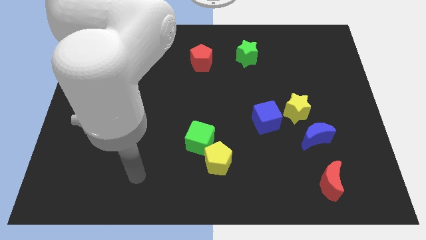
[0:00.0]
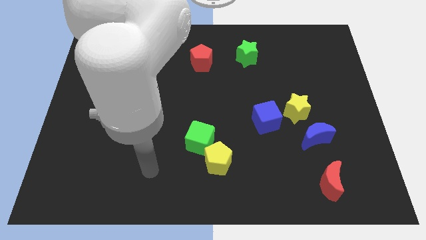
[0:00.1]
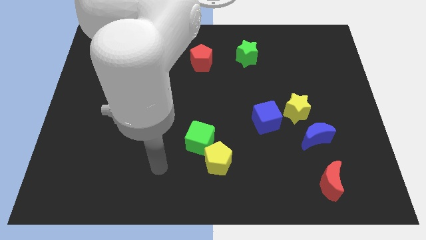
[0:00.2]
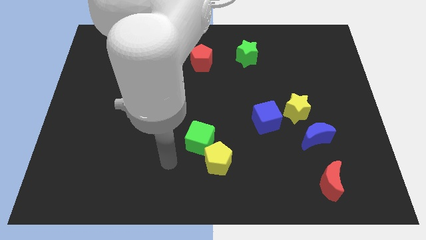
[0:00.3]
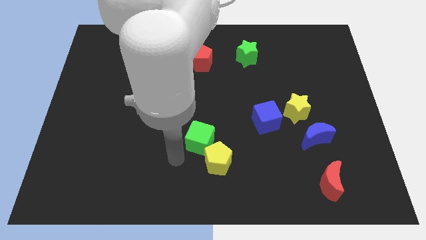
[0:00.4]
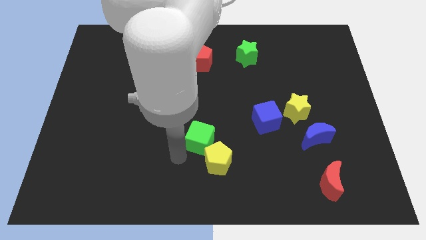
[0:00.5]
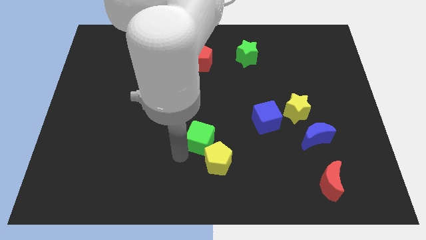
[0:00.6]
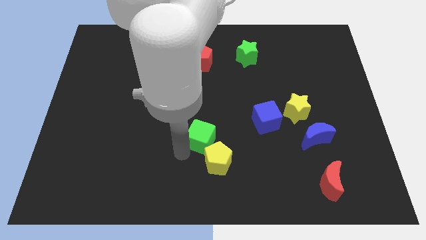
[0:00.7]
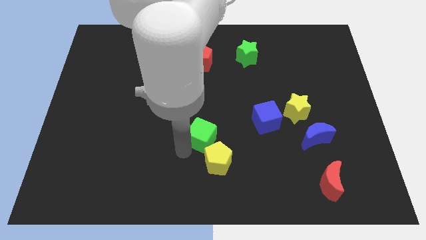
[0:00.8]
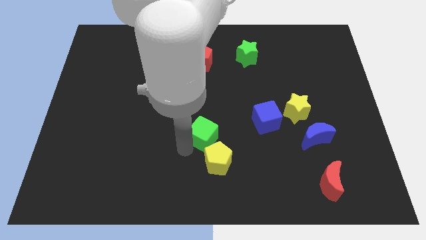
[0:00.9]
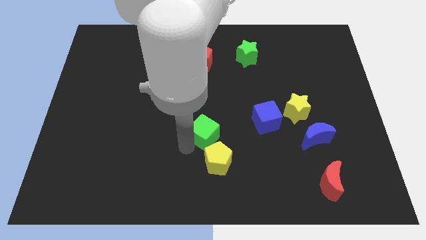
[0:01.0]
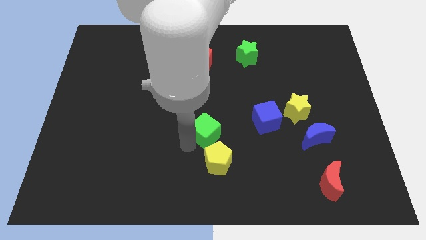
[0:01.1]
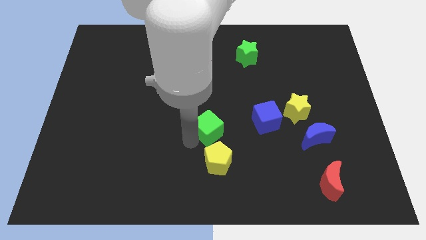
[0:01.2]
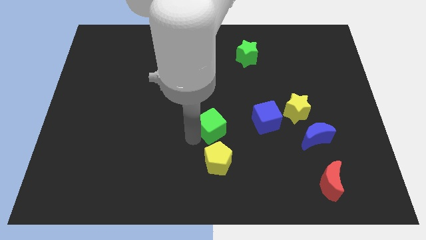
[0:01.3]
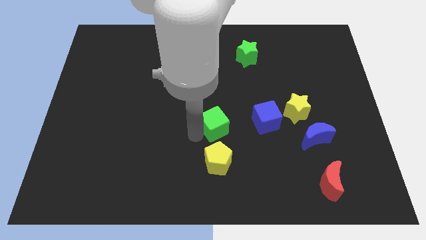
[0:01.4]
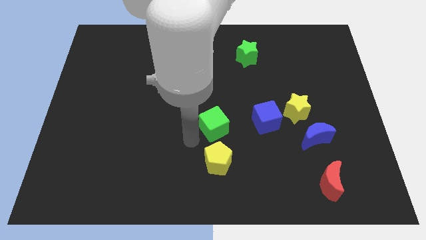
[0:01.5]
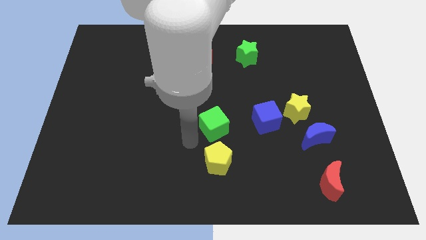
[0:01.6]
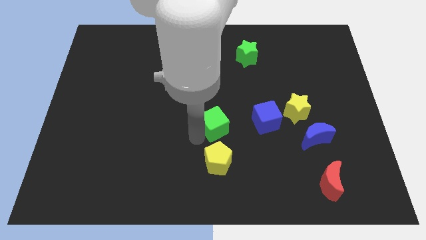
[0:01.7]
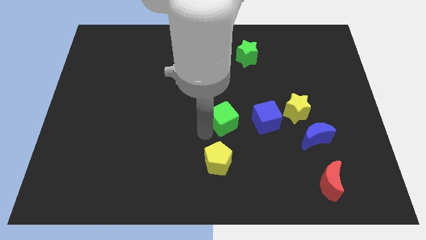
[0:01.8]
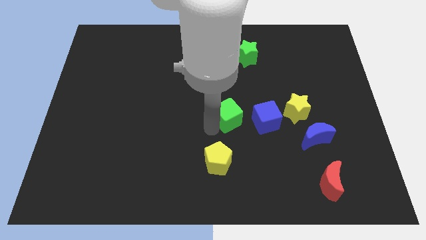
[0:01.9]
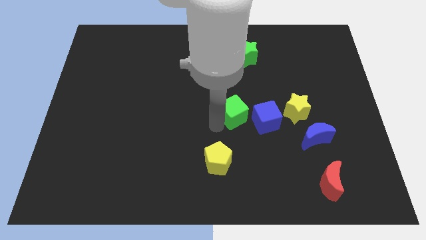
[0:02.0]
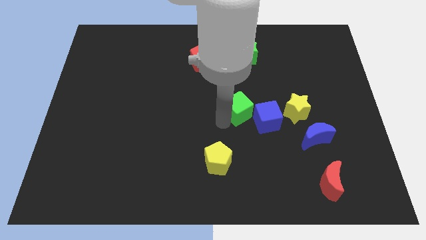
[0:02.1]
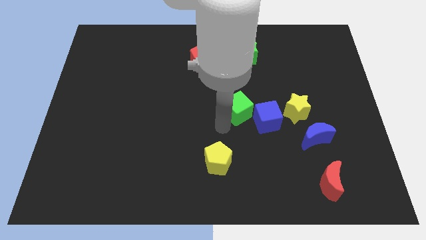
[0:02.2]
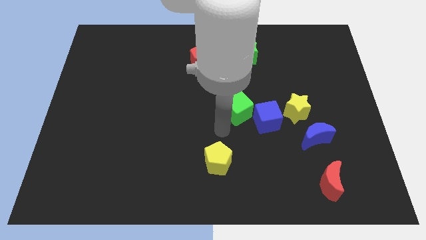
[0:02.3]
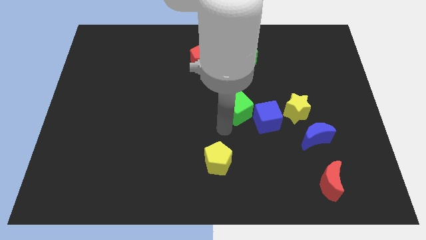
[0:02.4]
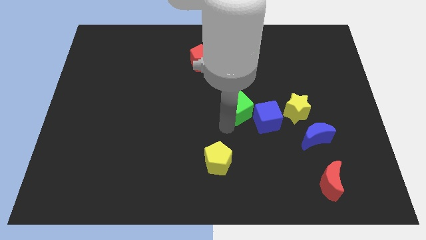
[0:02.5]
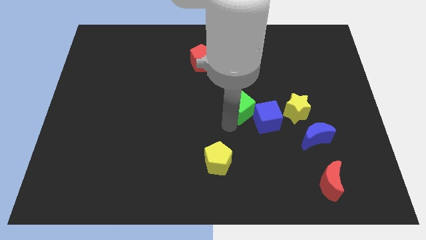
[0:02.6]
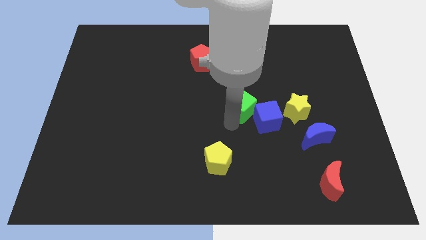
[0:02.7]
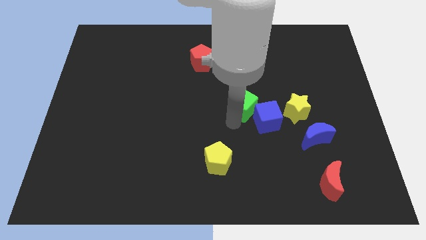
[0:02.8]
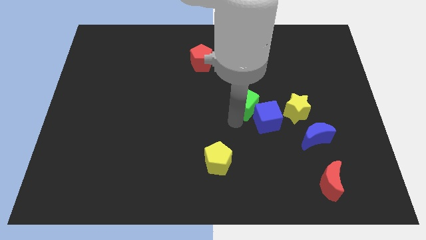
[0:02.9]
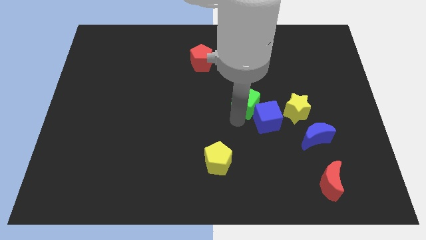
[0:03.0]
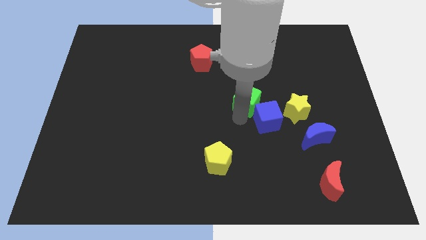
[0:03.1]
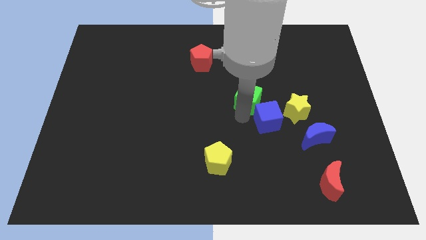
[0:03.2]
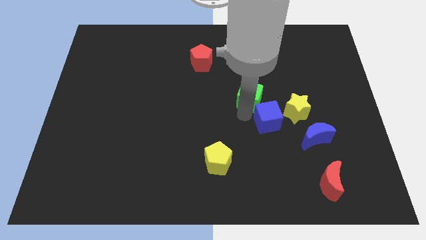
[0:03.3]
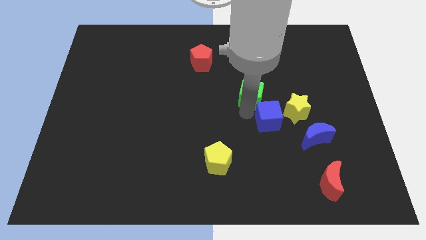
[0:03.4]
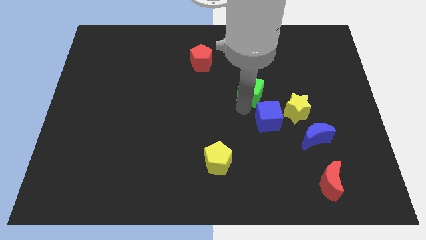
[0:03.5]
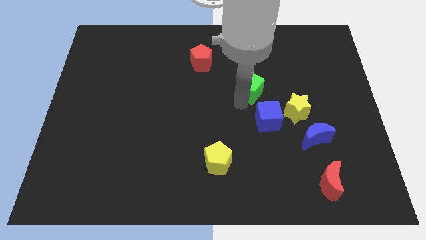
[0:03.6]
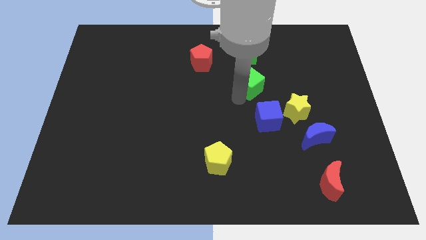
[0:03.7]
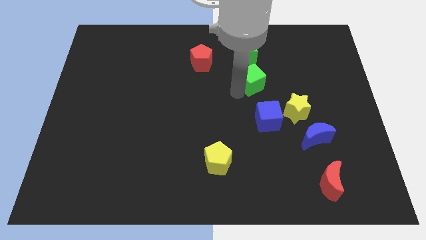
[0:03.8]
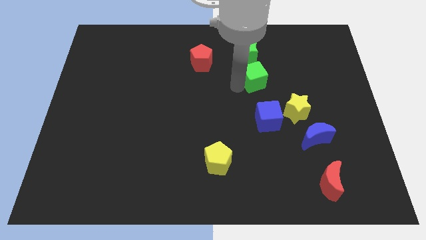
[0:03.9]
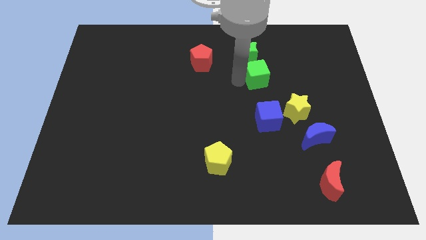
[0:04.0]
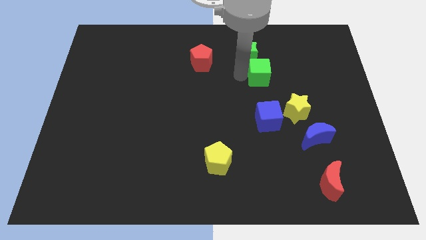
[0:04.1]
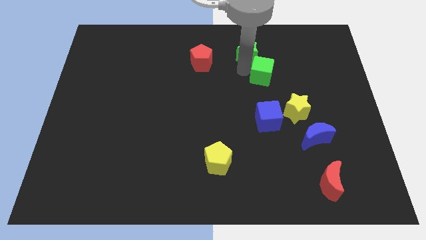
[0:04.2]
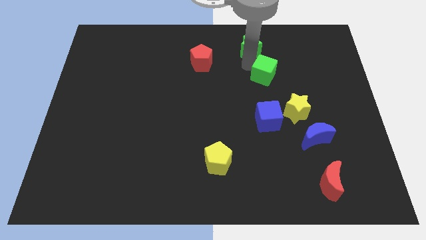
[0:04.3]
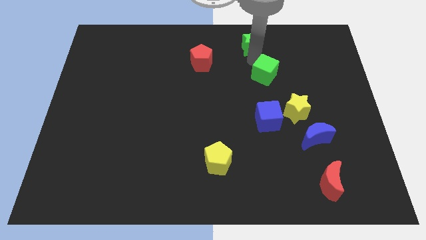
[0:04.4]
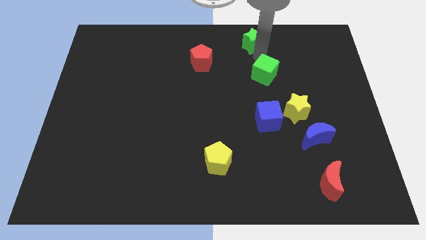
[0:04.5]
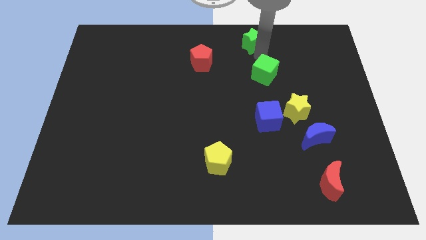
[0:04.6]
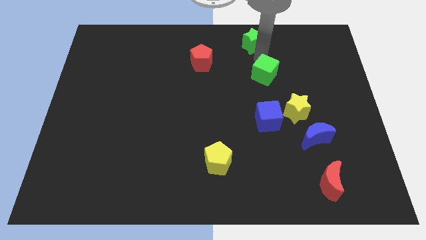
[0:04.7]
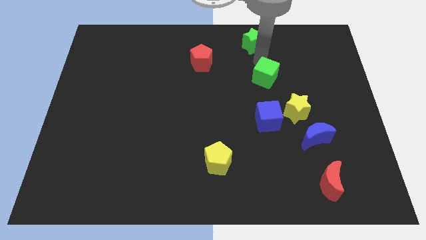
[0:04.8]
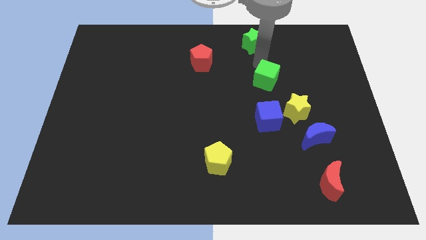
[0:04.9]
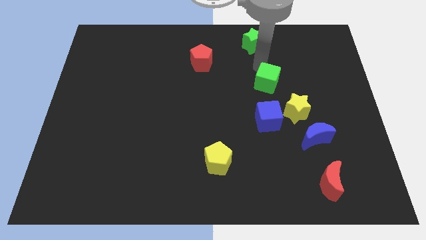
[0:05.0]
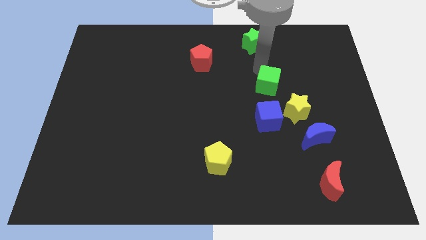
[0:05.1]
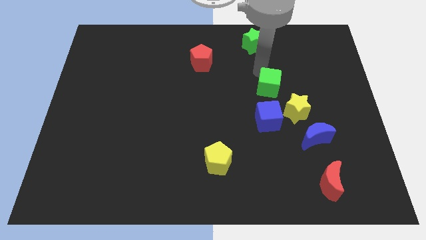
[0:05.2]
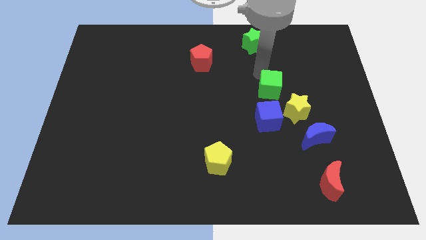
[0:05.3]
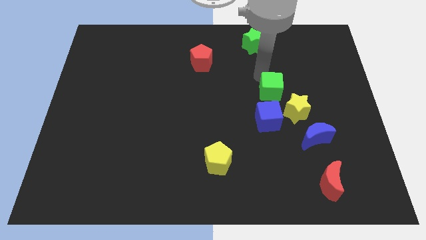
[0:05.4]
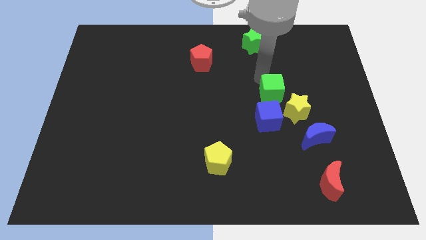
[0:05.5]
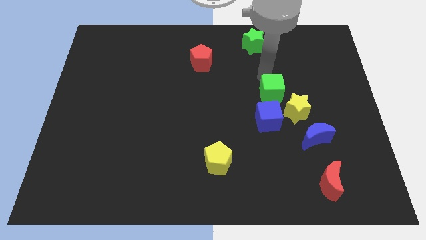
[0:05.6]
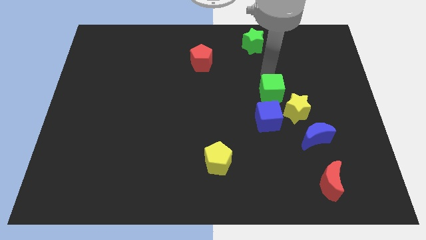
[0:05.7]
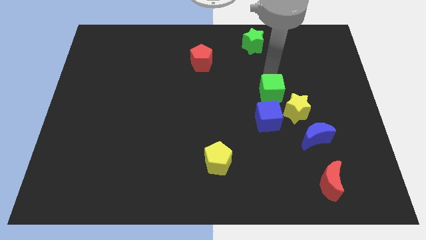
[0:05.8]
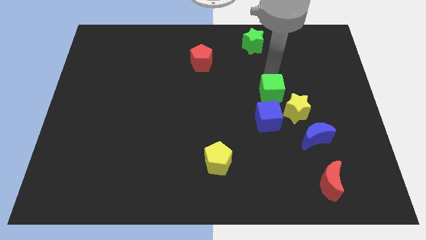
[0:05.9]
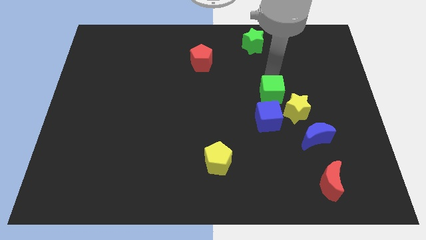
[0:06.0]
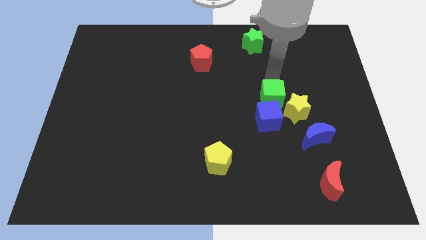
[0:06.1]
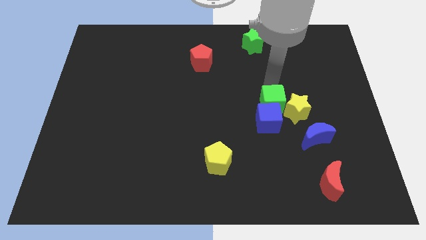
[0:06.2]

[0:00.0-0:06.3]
push the green cube diagonally up and to the left of the blue moon
